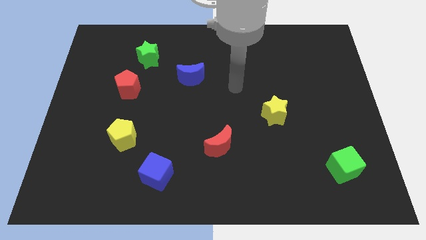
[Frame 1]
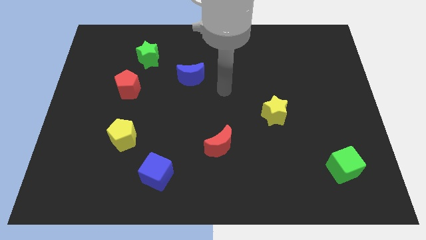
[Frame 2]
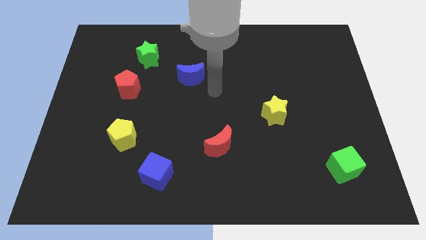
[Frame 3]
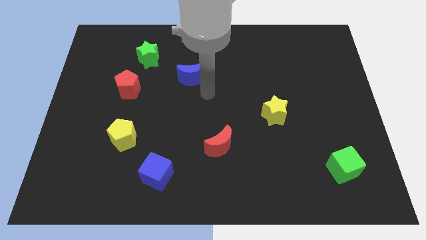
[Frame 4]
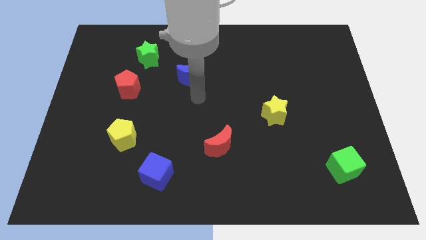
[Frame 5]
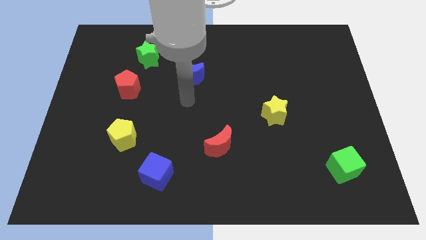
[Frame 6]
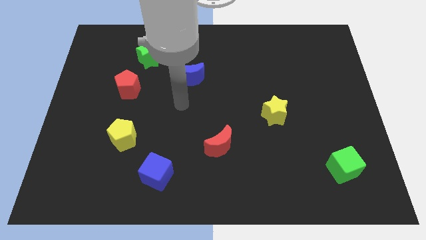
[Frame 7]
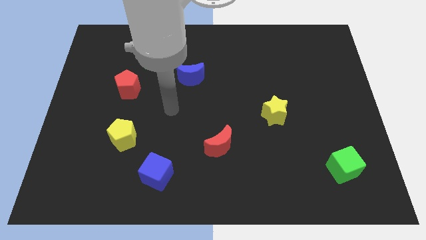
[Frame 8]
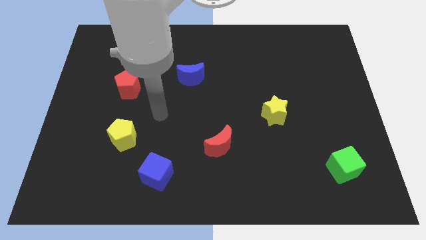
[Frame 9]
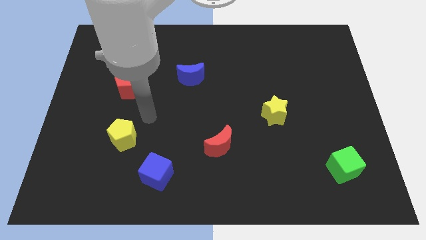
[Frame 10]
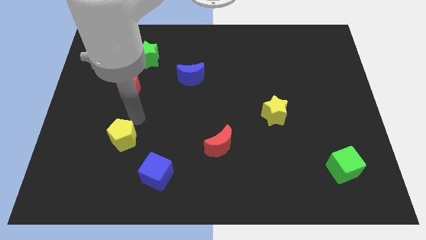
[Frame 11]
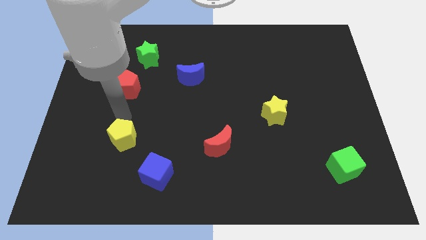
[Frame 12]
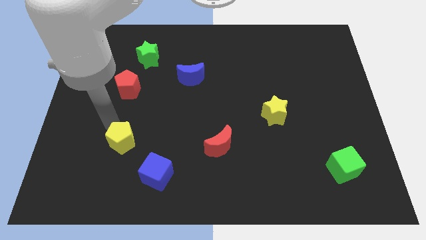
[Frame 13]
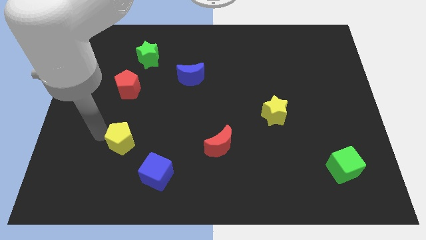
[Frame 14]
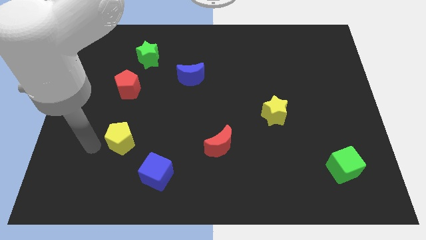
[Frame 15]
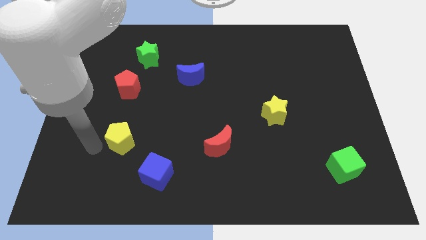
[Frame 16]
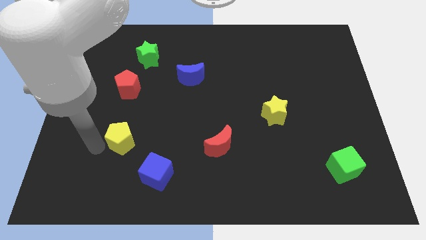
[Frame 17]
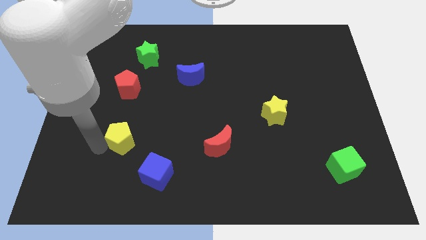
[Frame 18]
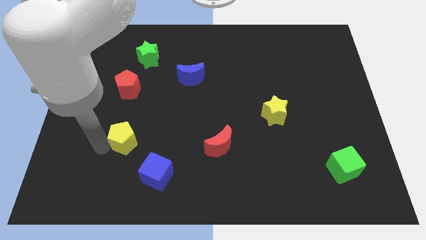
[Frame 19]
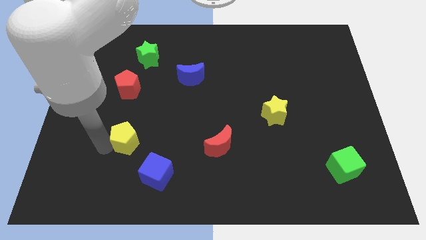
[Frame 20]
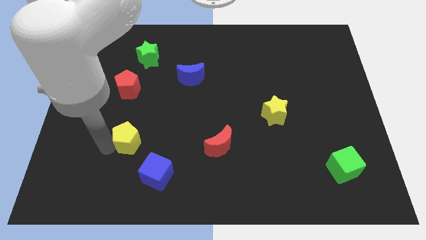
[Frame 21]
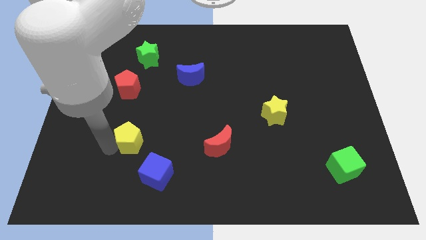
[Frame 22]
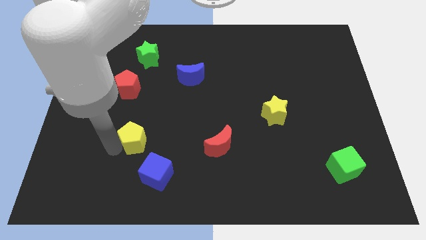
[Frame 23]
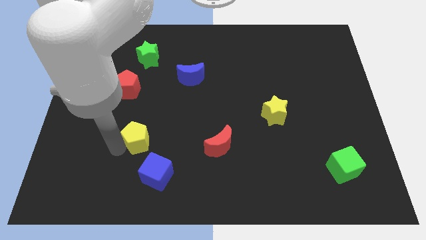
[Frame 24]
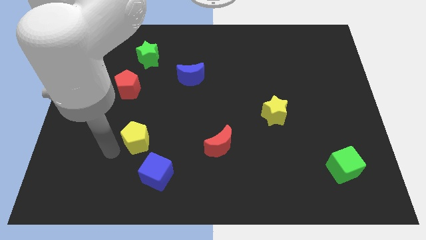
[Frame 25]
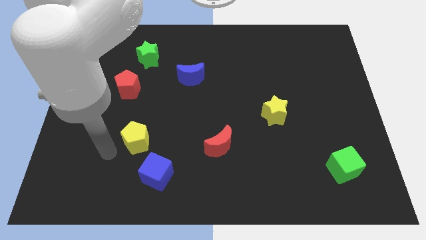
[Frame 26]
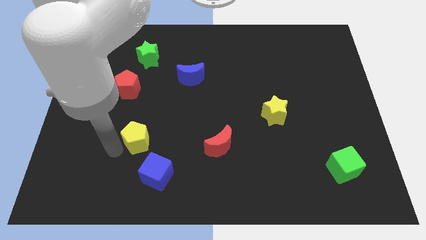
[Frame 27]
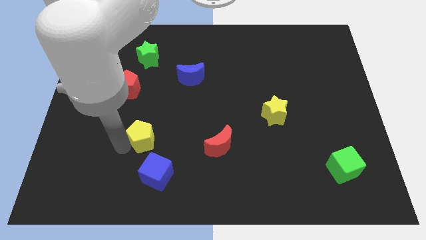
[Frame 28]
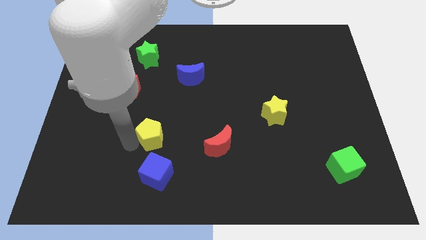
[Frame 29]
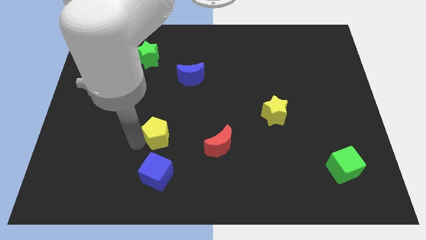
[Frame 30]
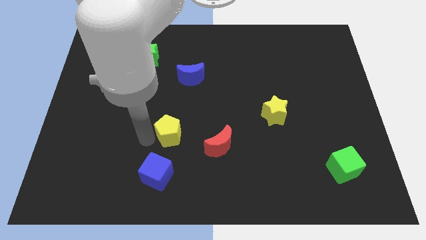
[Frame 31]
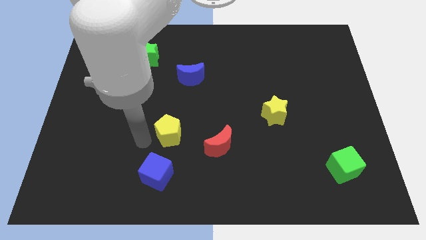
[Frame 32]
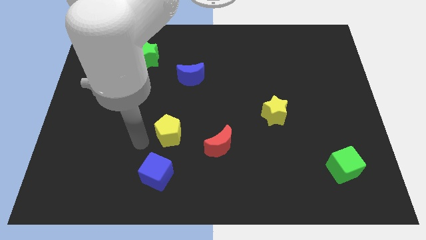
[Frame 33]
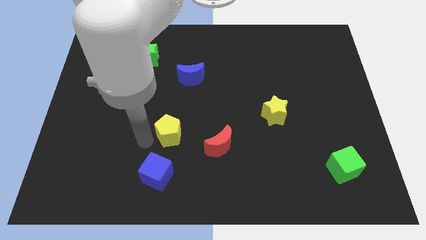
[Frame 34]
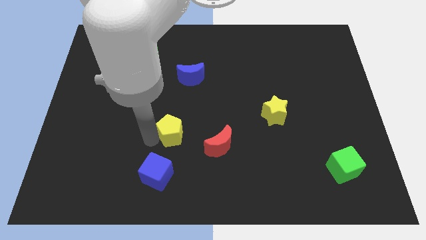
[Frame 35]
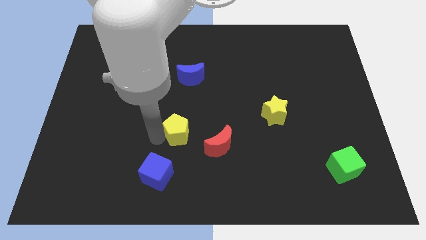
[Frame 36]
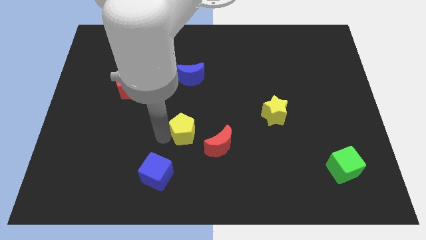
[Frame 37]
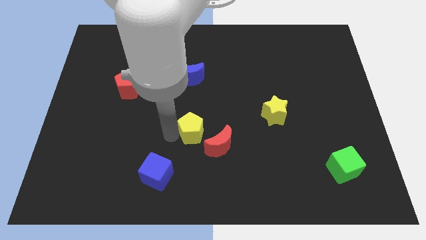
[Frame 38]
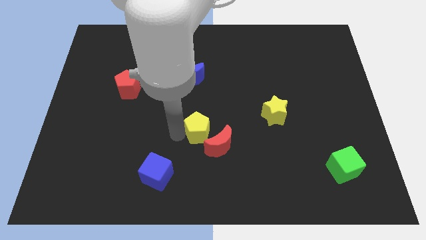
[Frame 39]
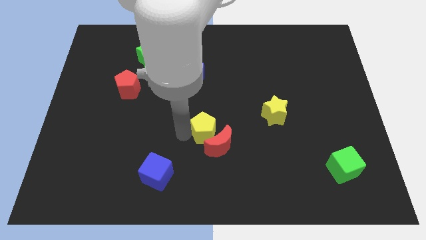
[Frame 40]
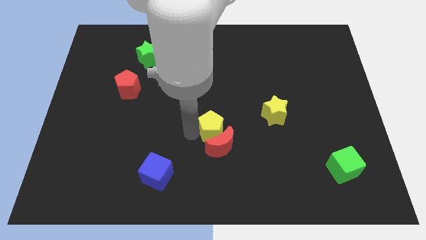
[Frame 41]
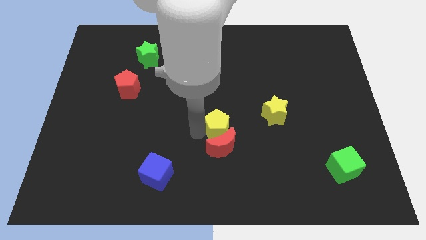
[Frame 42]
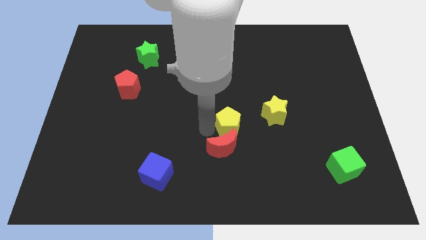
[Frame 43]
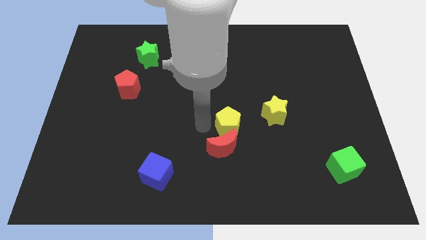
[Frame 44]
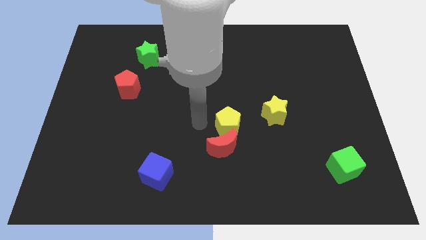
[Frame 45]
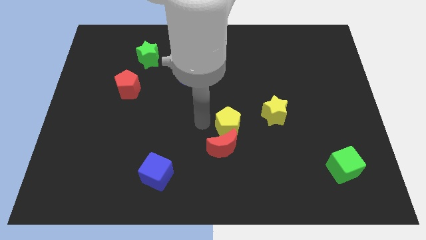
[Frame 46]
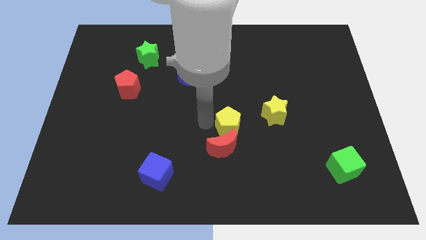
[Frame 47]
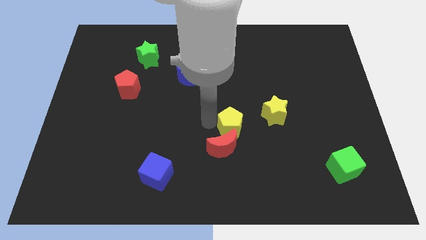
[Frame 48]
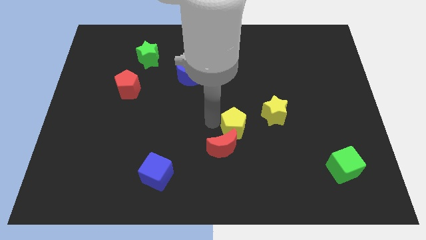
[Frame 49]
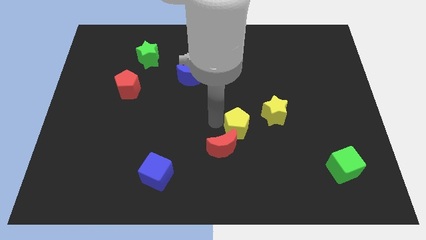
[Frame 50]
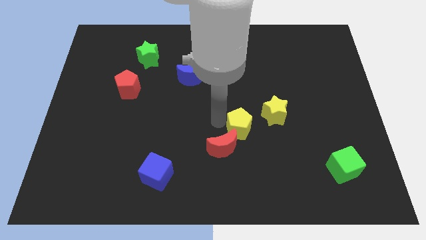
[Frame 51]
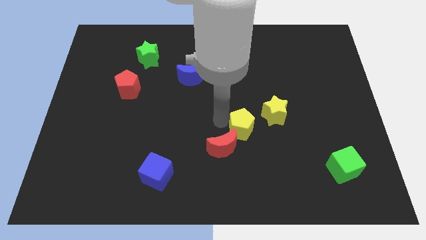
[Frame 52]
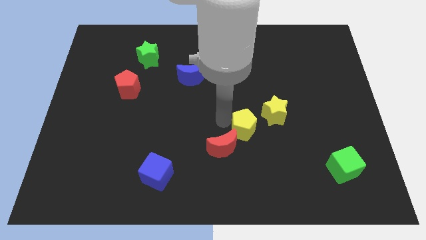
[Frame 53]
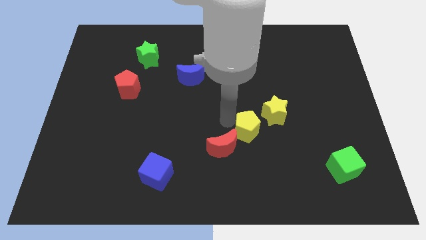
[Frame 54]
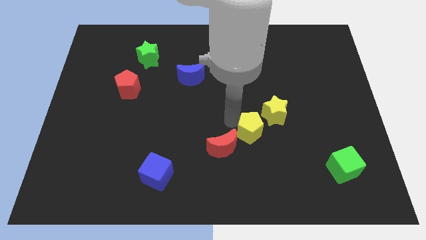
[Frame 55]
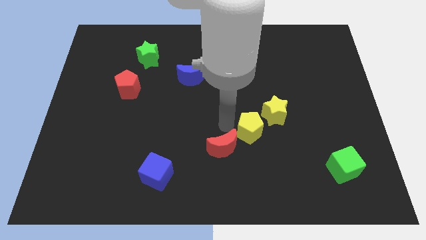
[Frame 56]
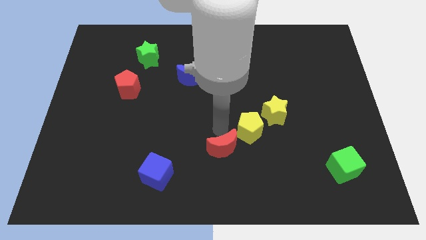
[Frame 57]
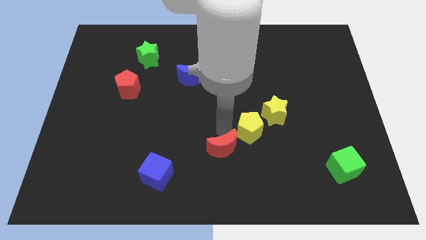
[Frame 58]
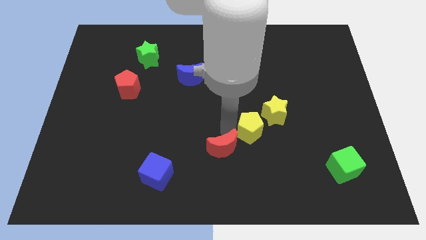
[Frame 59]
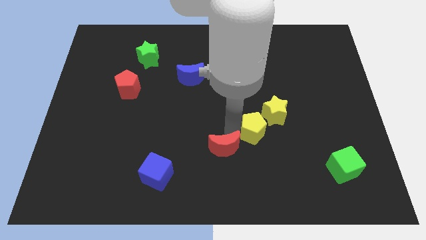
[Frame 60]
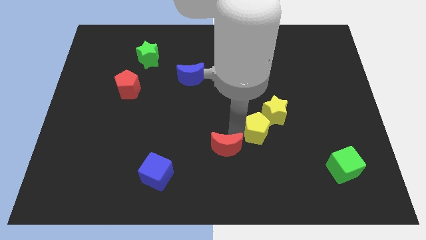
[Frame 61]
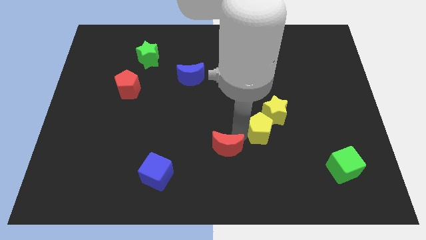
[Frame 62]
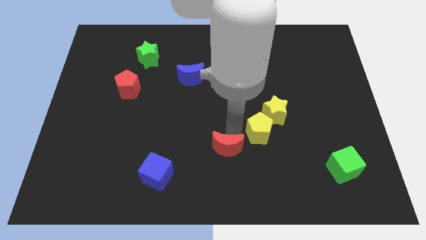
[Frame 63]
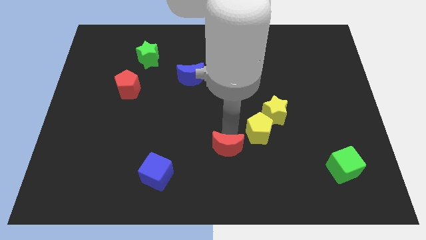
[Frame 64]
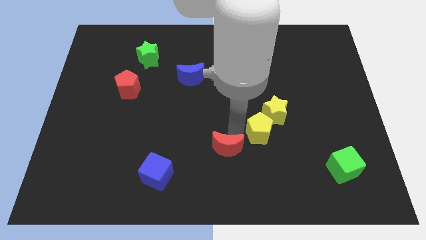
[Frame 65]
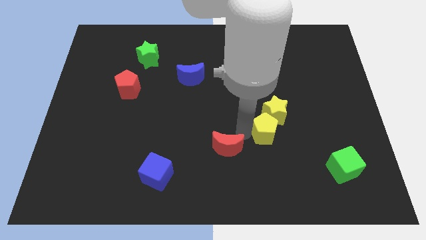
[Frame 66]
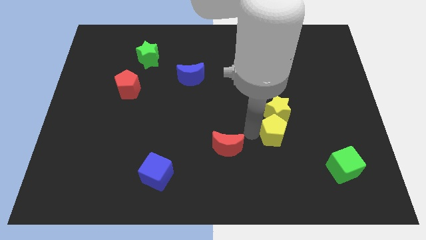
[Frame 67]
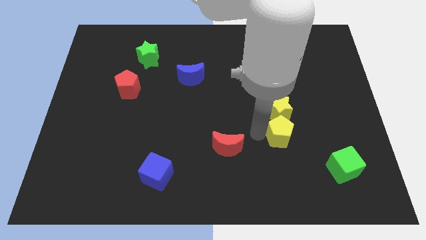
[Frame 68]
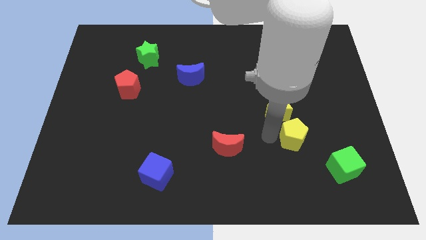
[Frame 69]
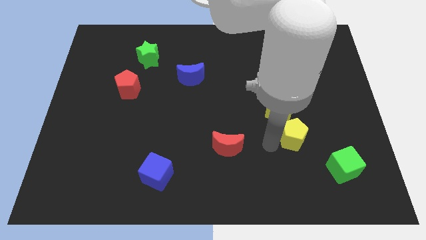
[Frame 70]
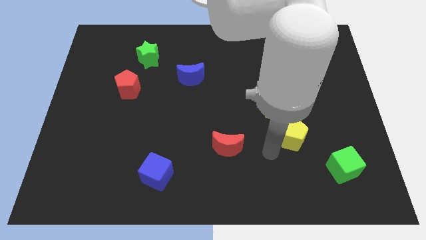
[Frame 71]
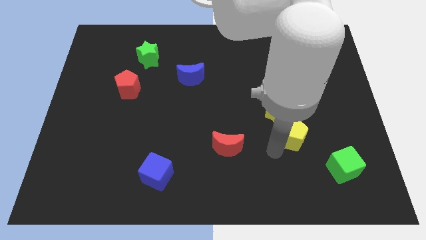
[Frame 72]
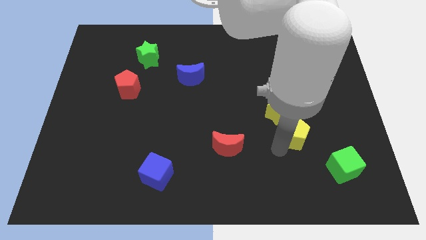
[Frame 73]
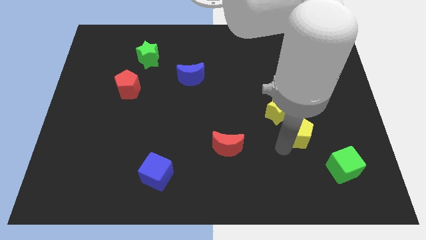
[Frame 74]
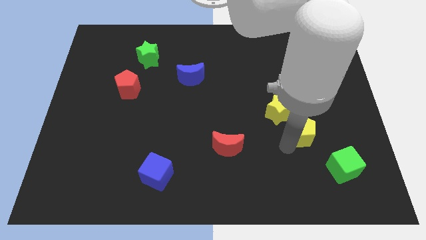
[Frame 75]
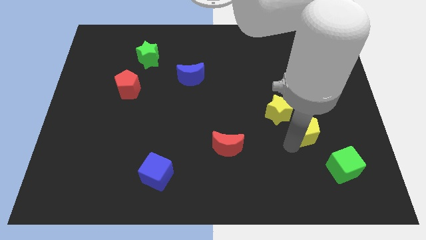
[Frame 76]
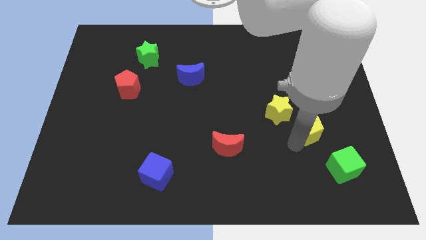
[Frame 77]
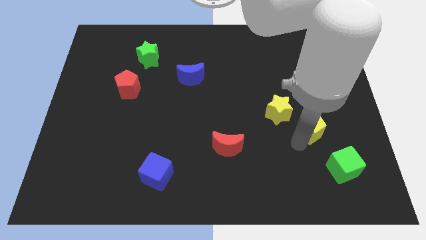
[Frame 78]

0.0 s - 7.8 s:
slide the yellow pentagon to the right of the yellow star

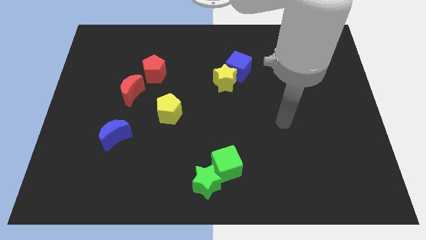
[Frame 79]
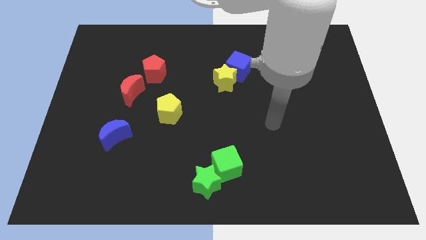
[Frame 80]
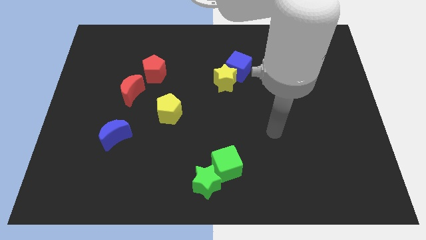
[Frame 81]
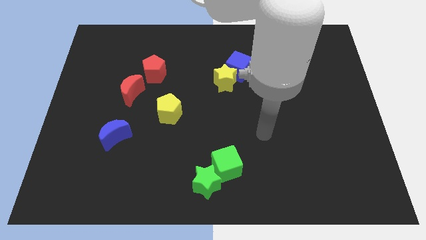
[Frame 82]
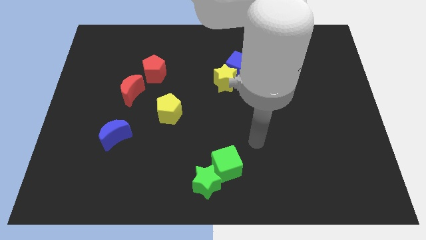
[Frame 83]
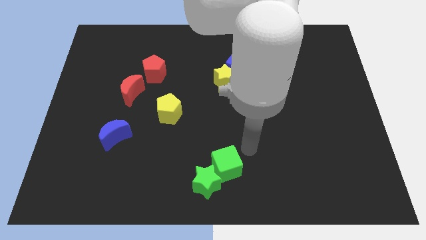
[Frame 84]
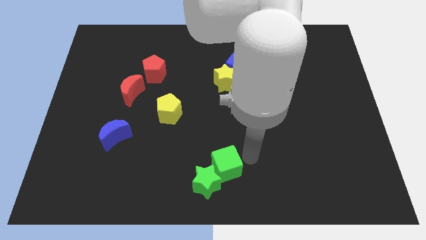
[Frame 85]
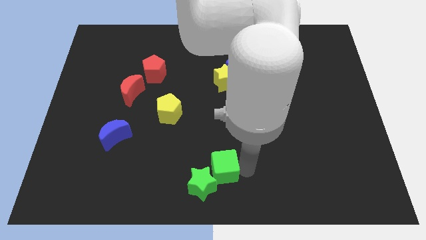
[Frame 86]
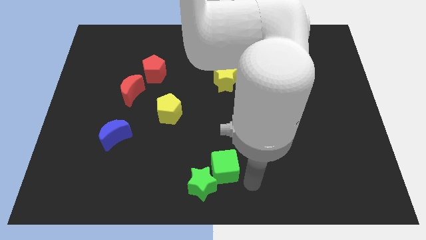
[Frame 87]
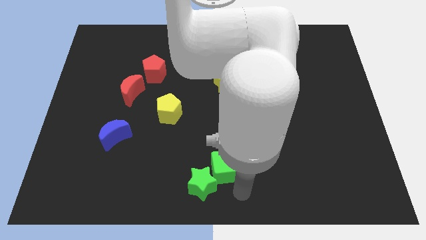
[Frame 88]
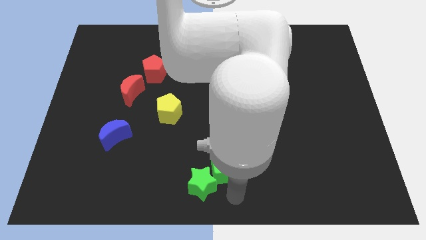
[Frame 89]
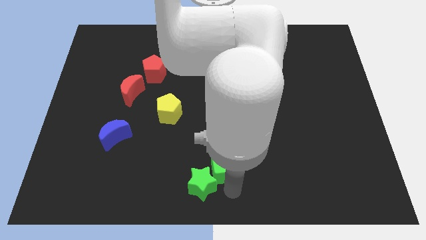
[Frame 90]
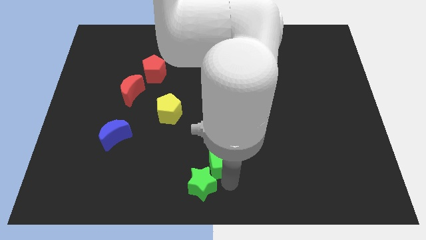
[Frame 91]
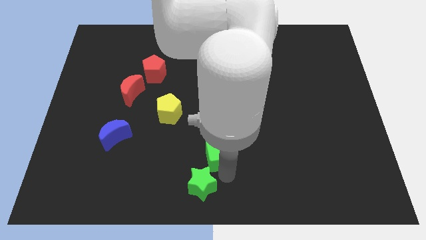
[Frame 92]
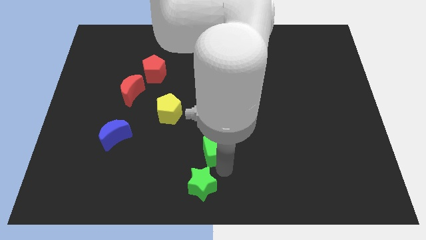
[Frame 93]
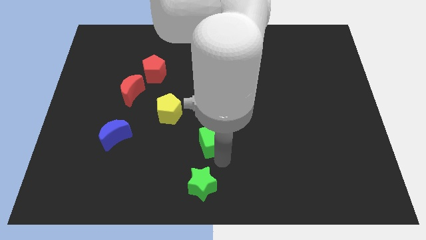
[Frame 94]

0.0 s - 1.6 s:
slide the green cube to the bottom right side of the yellow pentagon
